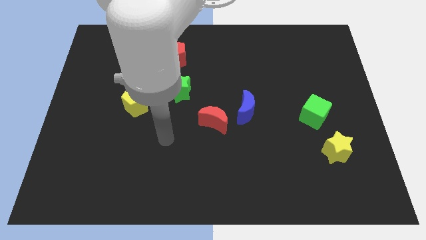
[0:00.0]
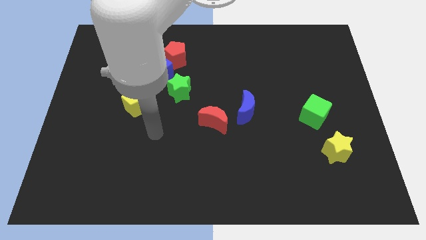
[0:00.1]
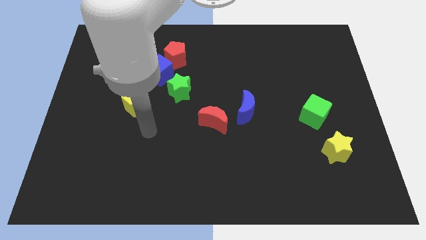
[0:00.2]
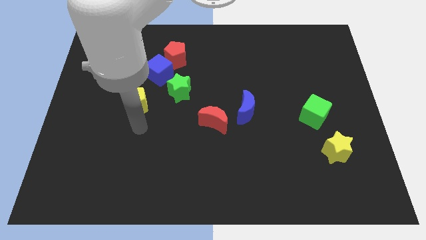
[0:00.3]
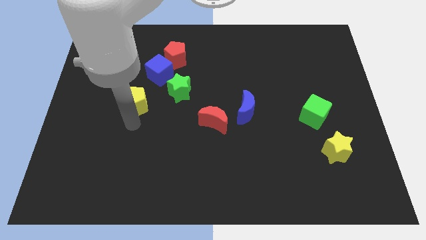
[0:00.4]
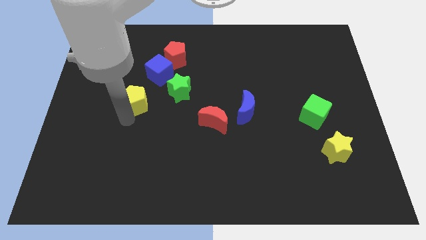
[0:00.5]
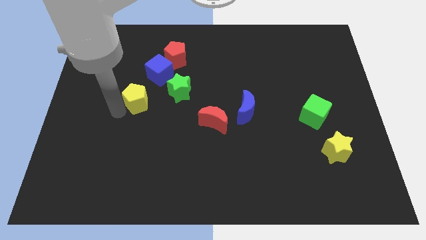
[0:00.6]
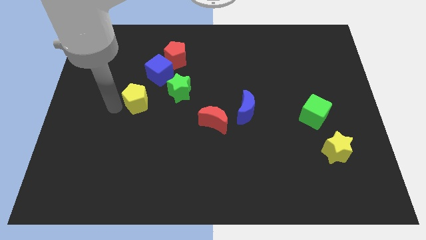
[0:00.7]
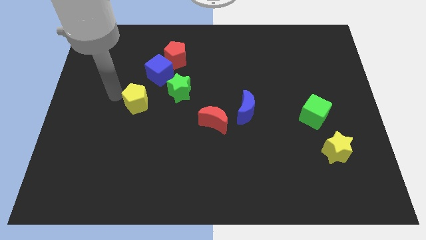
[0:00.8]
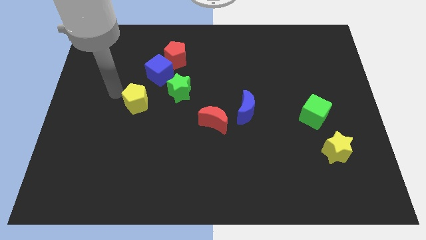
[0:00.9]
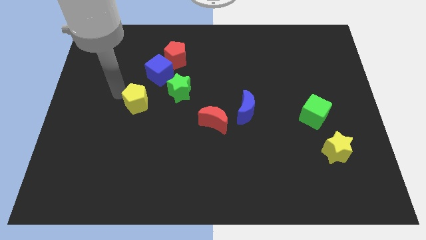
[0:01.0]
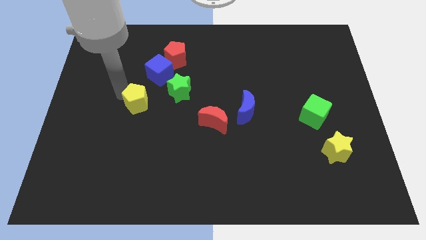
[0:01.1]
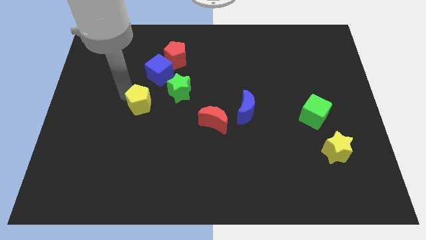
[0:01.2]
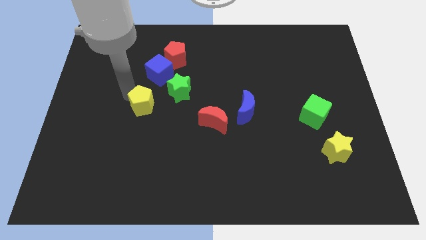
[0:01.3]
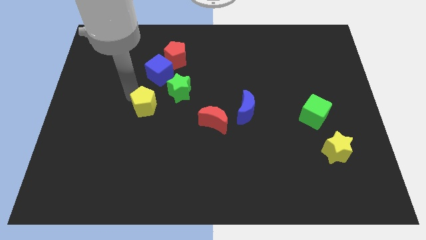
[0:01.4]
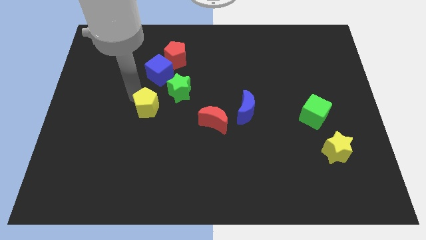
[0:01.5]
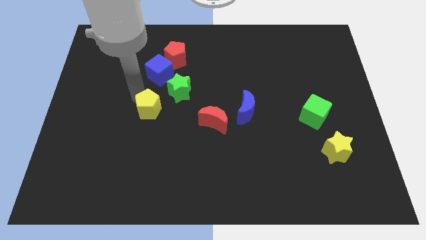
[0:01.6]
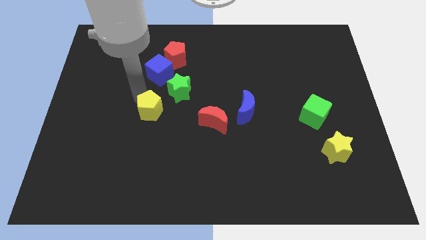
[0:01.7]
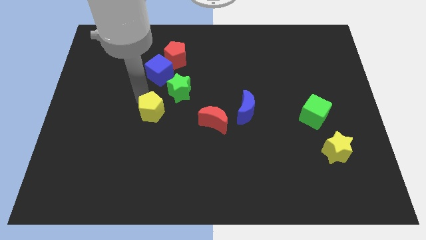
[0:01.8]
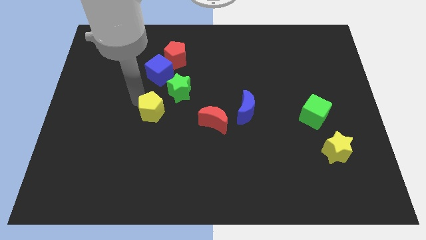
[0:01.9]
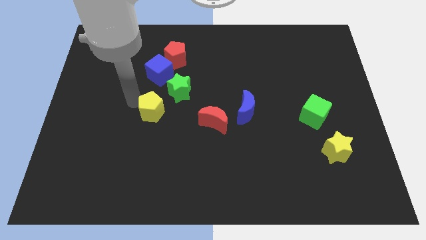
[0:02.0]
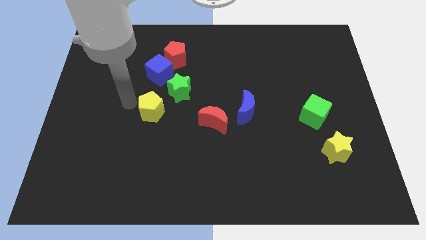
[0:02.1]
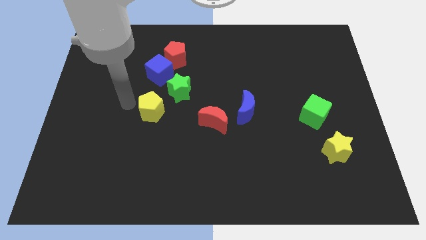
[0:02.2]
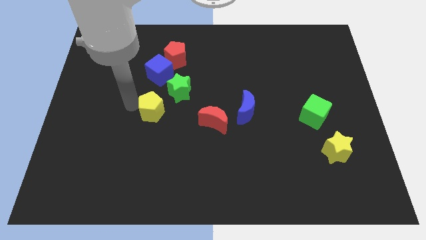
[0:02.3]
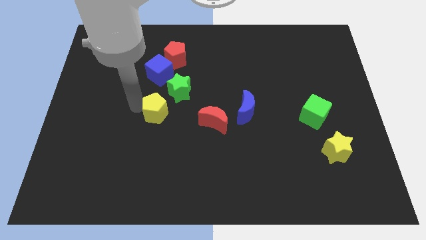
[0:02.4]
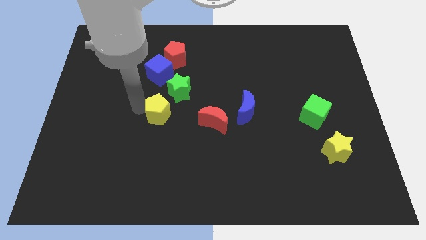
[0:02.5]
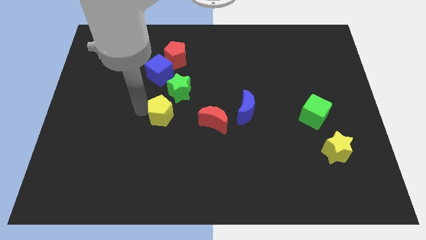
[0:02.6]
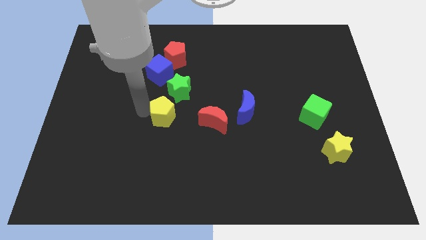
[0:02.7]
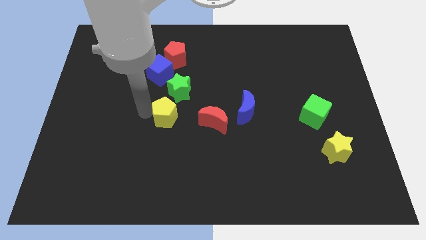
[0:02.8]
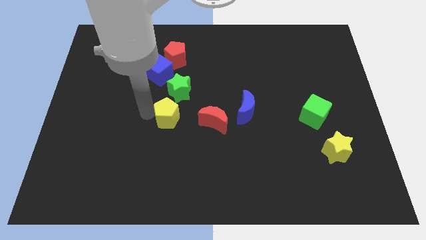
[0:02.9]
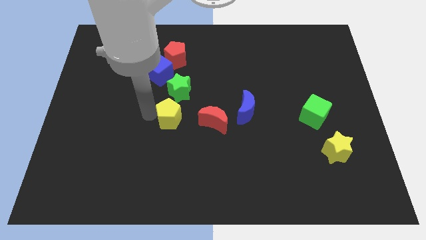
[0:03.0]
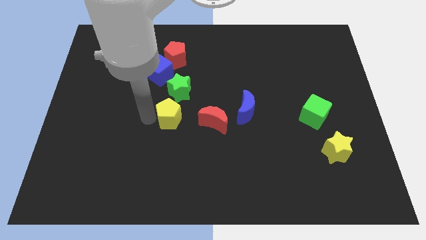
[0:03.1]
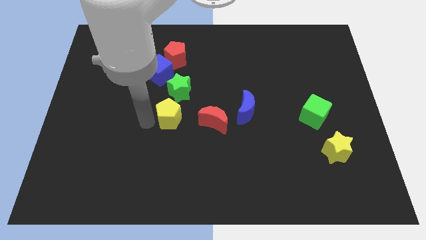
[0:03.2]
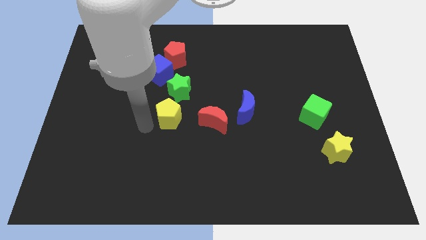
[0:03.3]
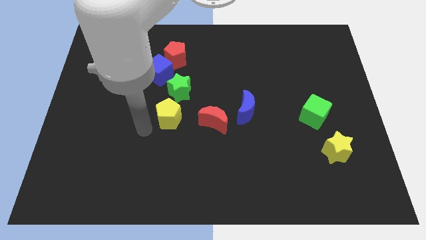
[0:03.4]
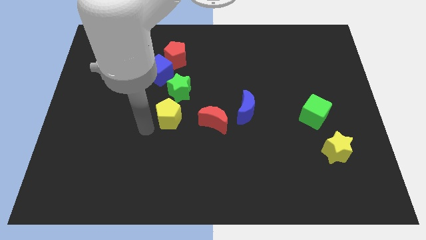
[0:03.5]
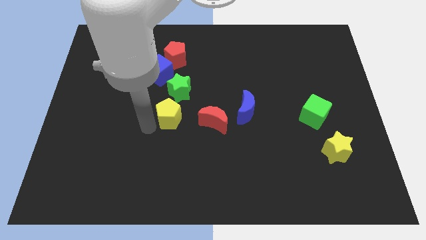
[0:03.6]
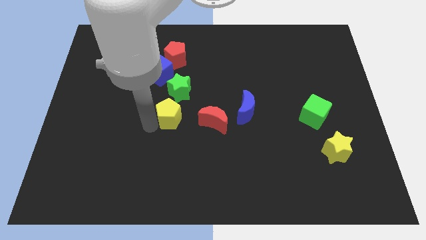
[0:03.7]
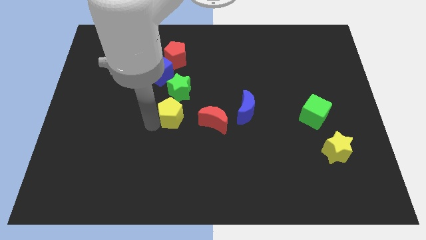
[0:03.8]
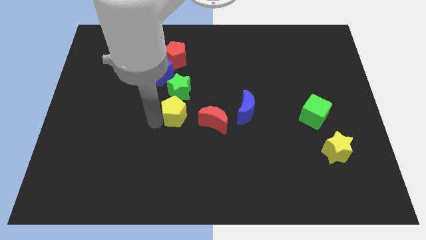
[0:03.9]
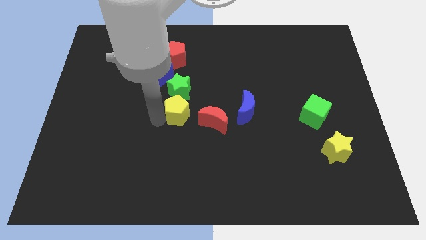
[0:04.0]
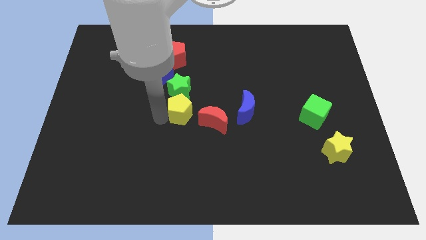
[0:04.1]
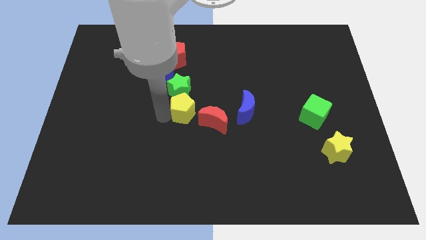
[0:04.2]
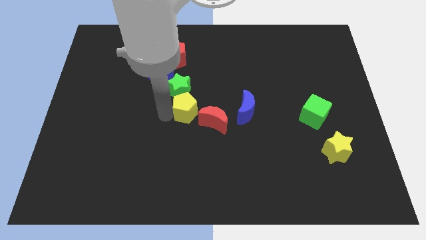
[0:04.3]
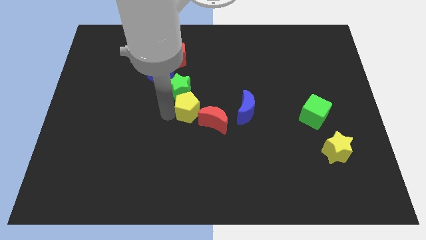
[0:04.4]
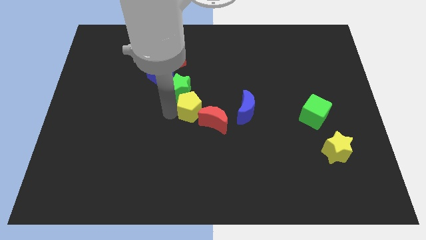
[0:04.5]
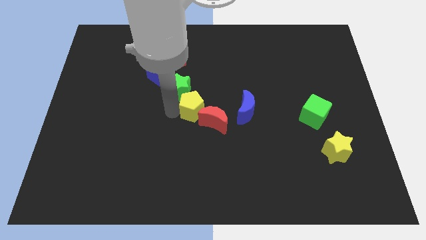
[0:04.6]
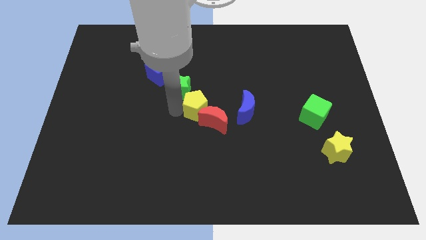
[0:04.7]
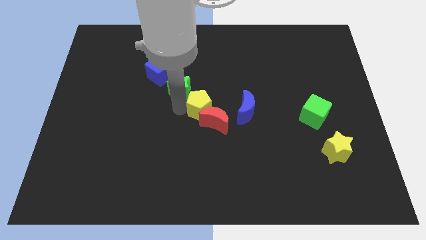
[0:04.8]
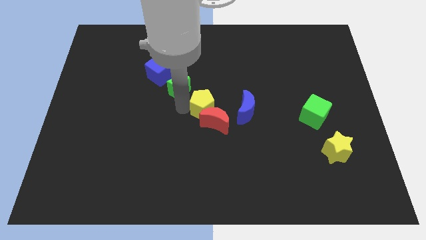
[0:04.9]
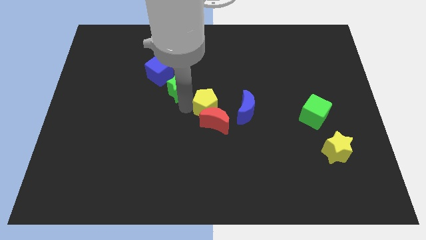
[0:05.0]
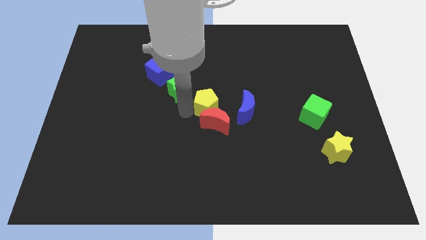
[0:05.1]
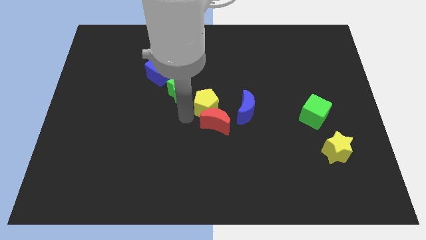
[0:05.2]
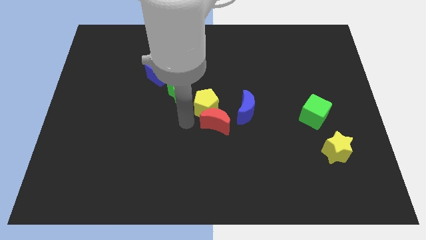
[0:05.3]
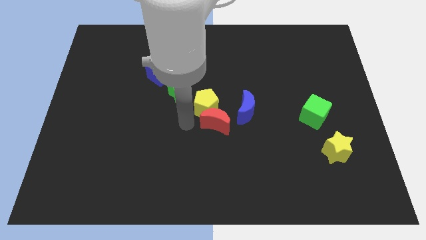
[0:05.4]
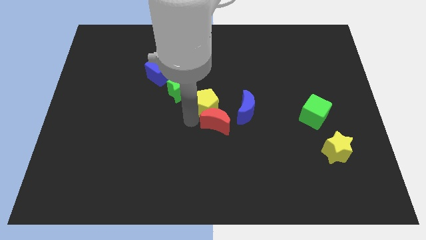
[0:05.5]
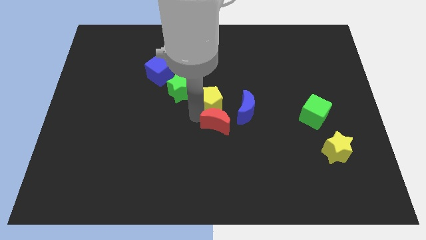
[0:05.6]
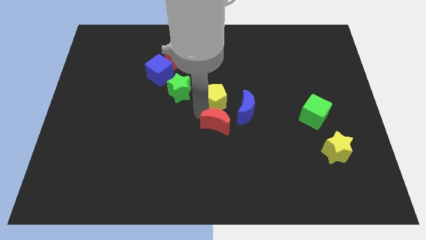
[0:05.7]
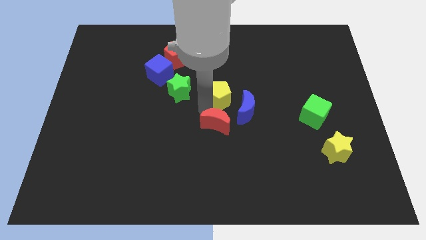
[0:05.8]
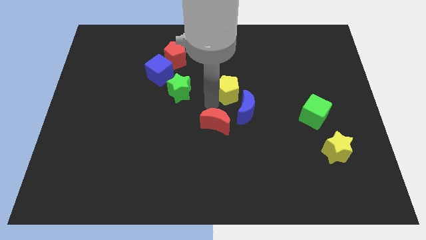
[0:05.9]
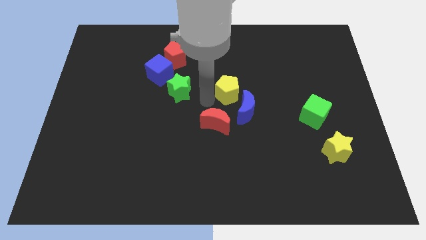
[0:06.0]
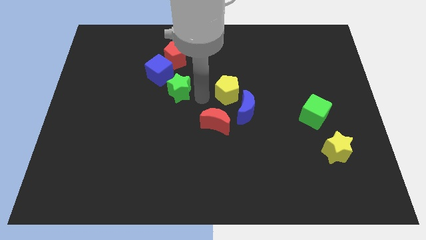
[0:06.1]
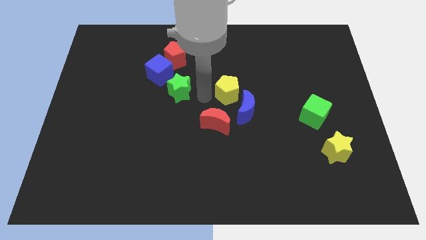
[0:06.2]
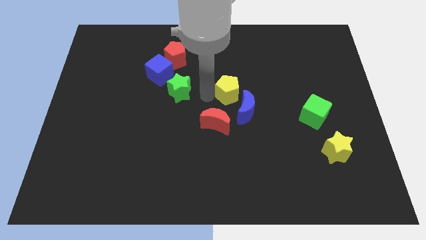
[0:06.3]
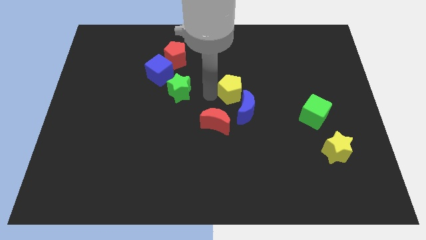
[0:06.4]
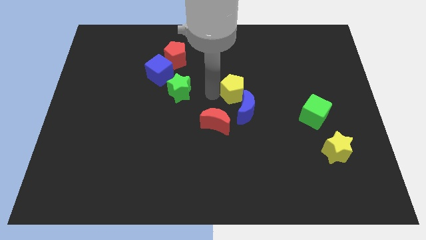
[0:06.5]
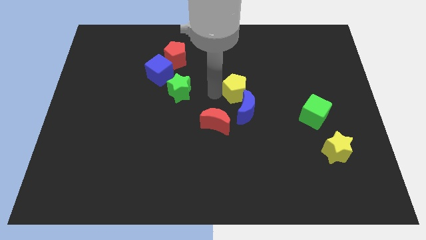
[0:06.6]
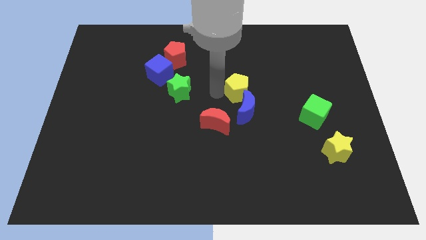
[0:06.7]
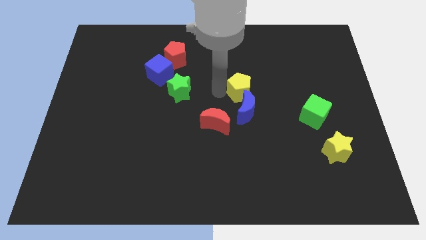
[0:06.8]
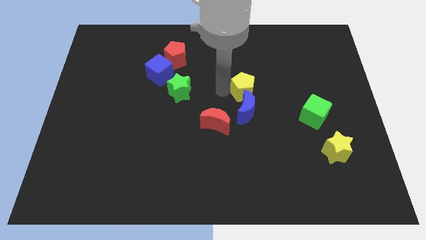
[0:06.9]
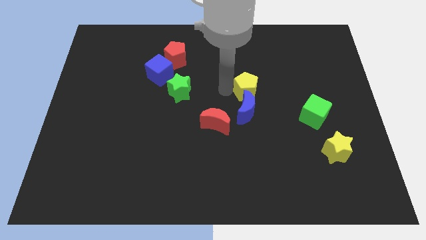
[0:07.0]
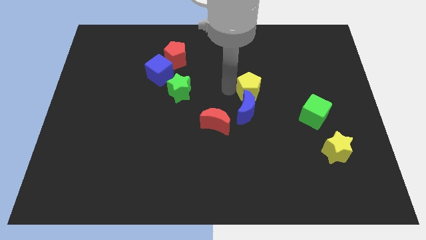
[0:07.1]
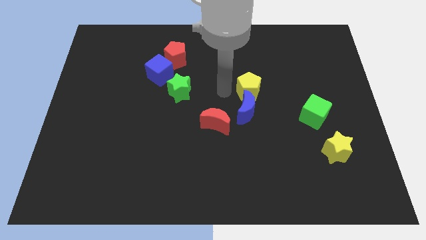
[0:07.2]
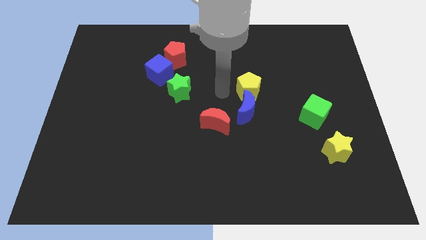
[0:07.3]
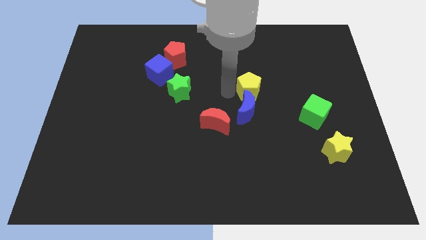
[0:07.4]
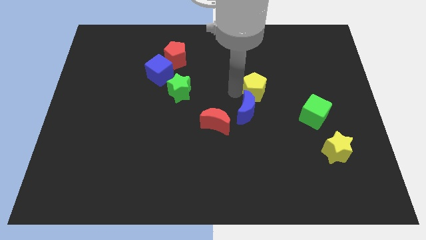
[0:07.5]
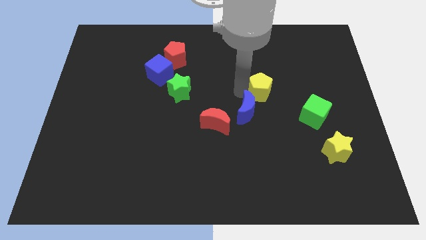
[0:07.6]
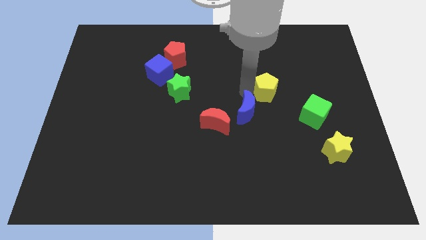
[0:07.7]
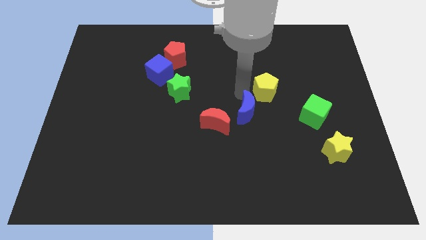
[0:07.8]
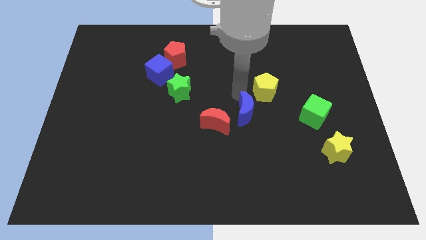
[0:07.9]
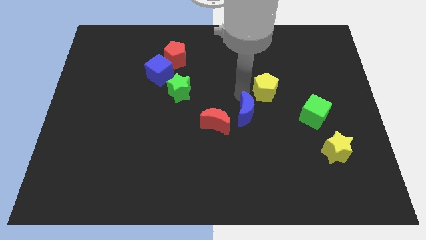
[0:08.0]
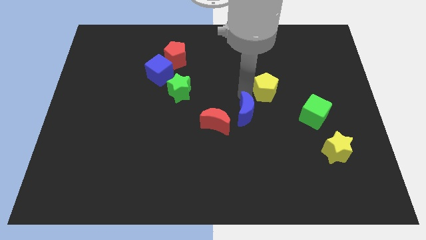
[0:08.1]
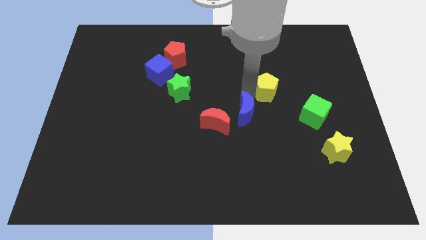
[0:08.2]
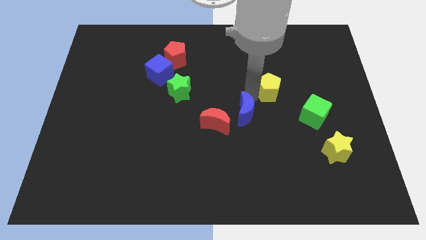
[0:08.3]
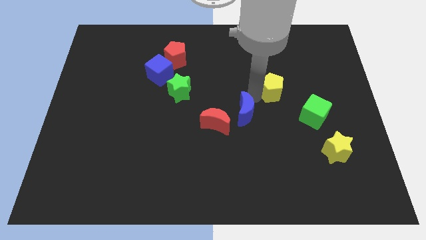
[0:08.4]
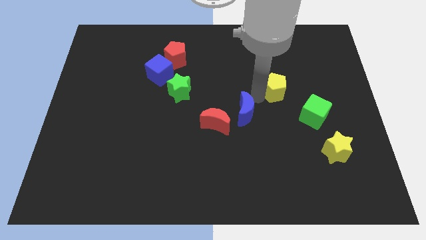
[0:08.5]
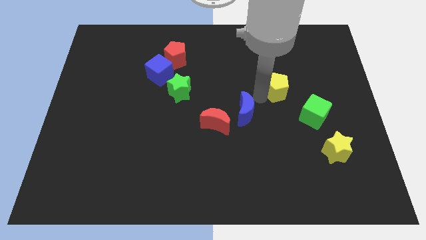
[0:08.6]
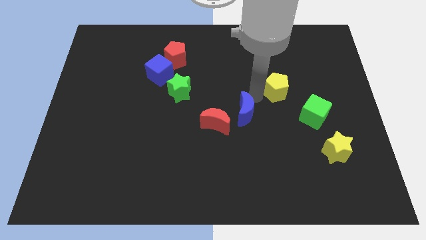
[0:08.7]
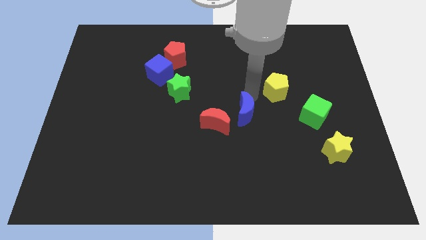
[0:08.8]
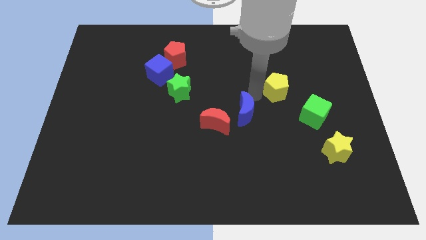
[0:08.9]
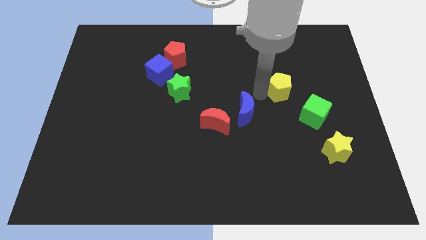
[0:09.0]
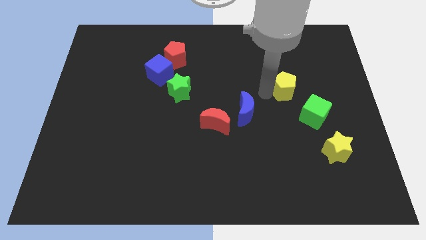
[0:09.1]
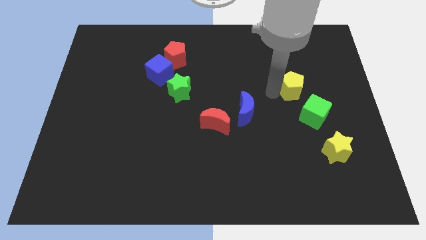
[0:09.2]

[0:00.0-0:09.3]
put the yellow pentagon to the top side of the green cube
